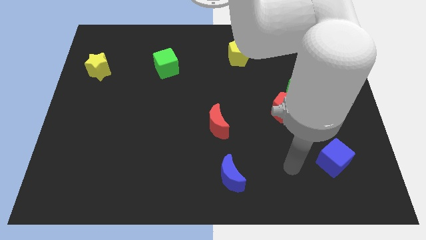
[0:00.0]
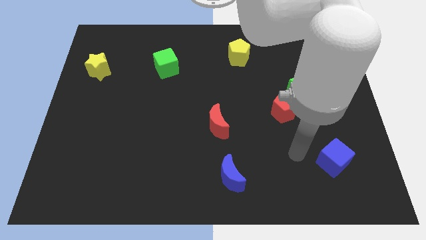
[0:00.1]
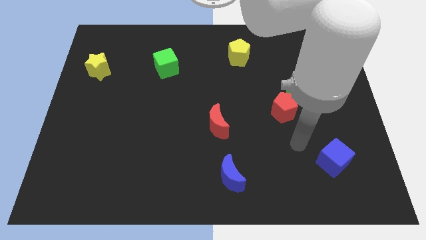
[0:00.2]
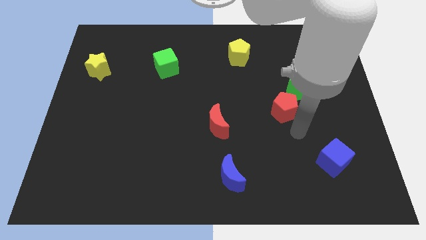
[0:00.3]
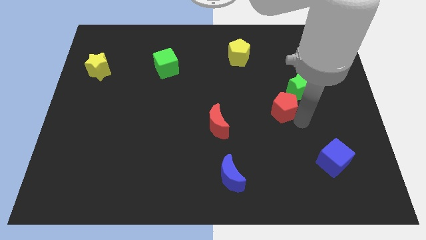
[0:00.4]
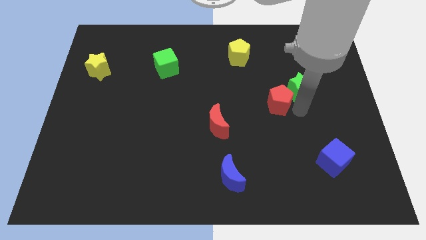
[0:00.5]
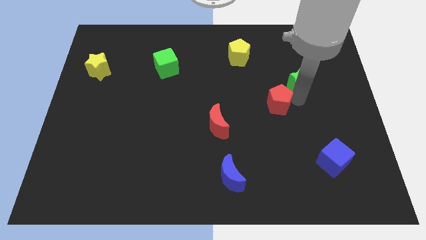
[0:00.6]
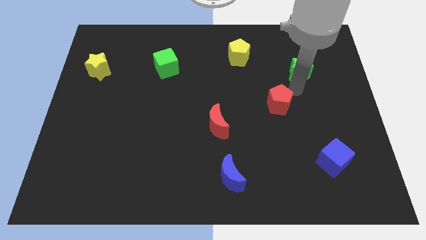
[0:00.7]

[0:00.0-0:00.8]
separate the red pentagon from the green star

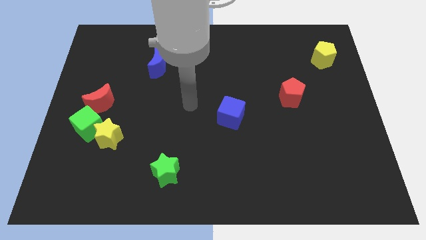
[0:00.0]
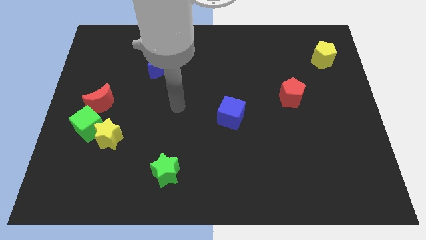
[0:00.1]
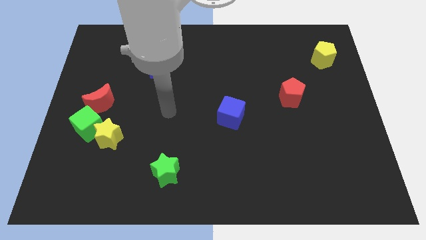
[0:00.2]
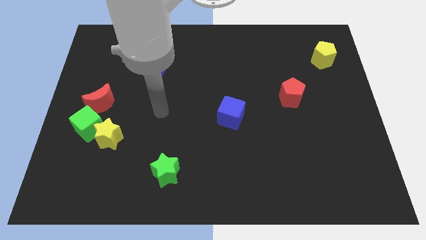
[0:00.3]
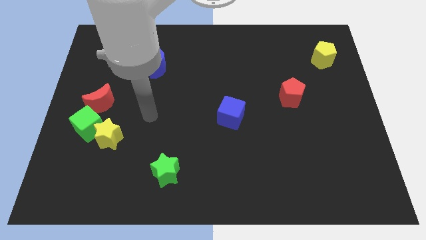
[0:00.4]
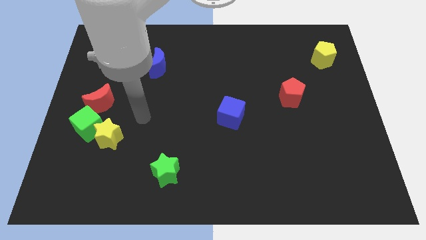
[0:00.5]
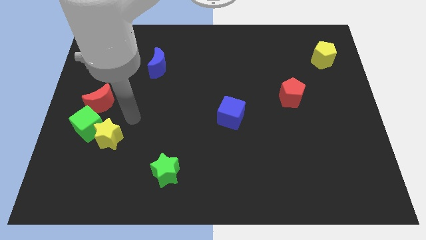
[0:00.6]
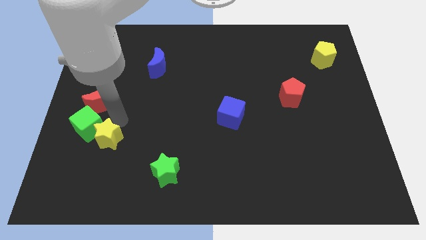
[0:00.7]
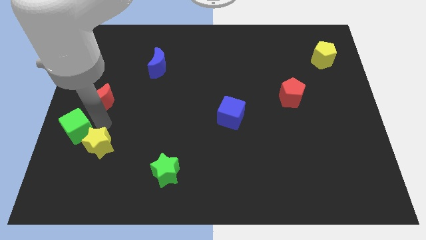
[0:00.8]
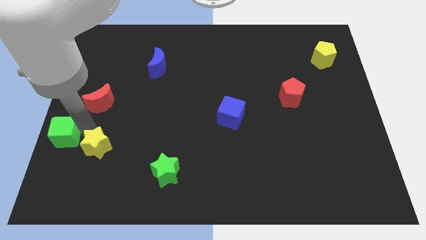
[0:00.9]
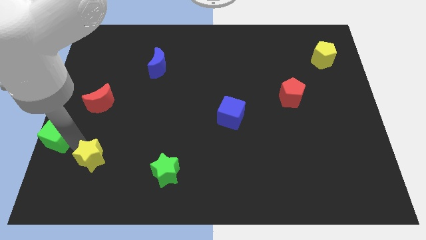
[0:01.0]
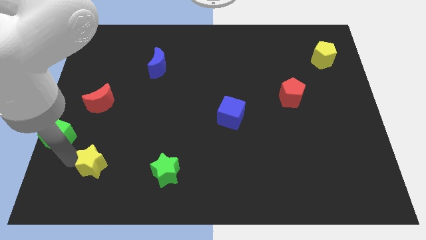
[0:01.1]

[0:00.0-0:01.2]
pull the yellow star apart from the green cube

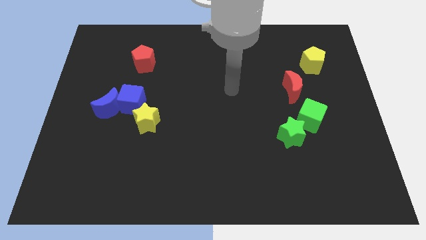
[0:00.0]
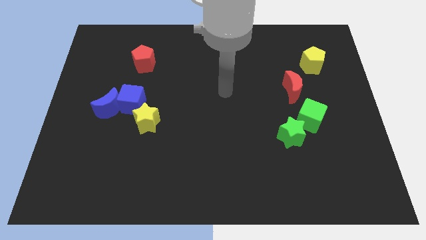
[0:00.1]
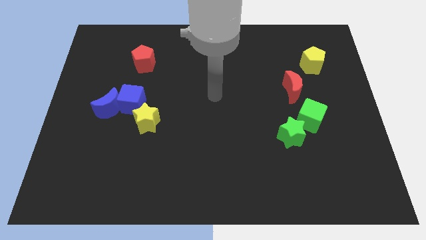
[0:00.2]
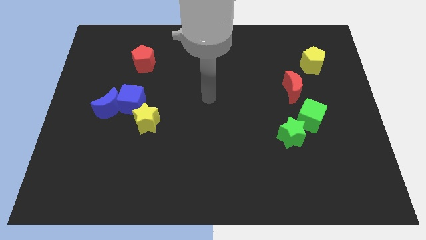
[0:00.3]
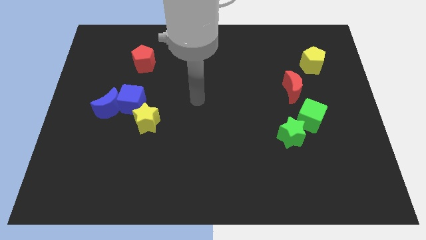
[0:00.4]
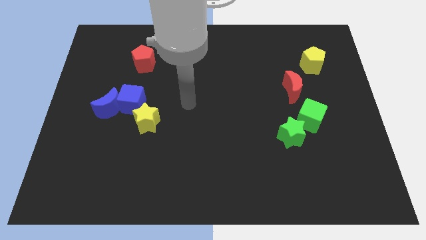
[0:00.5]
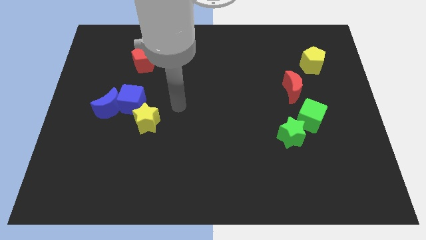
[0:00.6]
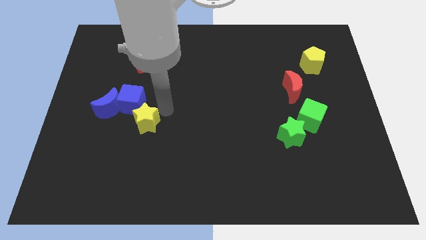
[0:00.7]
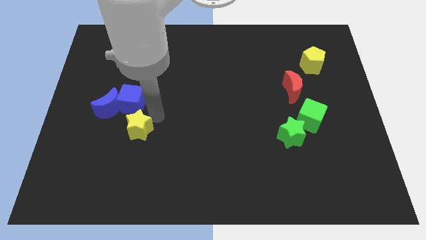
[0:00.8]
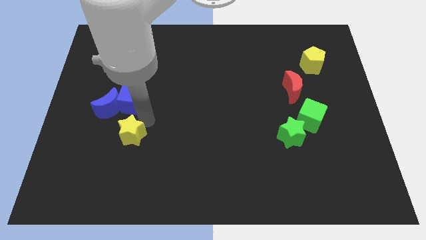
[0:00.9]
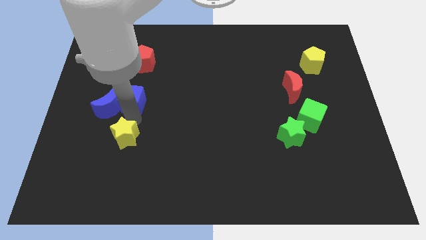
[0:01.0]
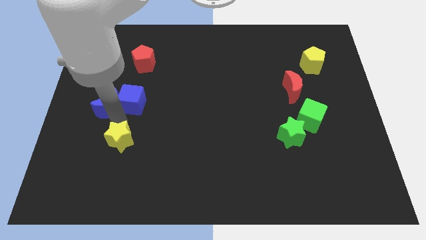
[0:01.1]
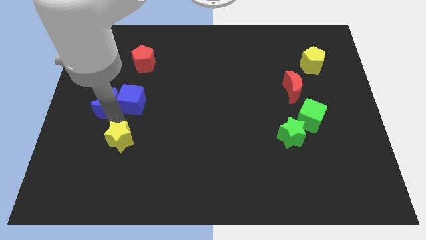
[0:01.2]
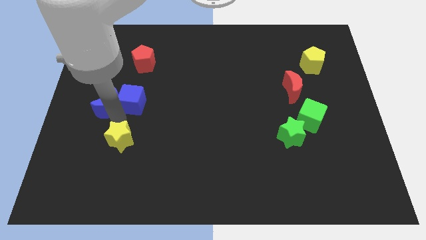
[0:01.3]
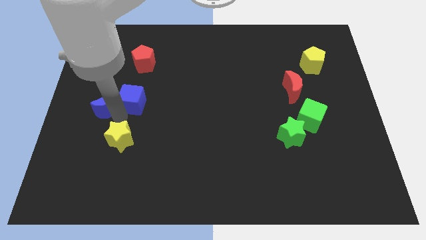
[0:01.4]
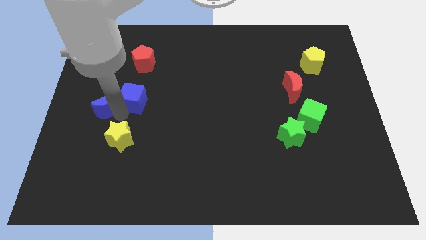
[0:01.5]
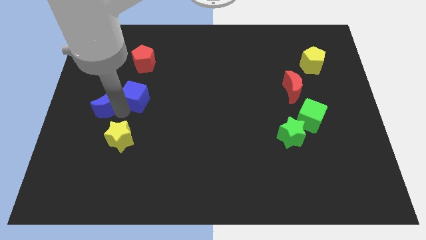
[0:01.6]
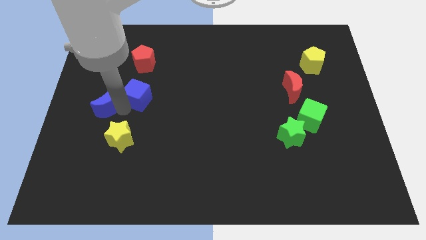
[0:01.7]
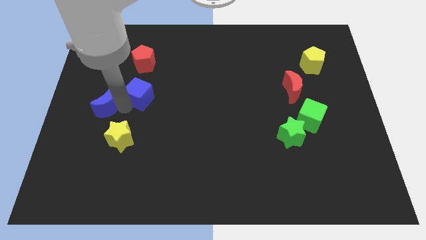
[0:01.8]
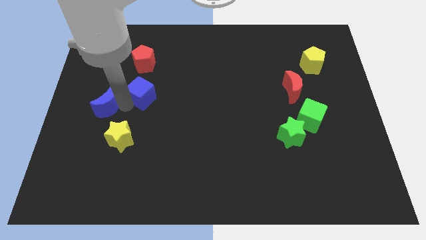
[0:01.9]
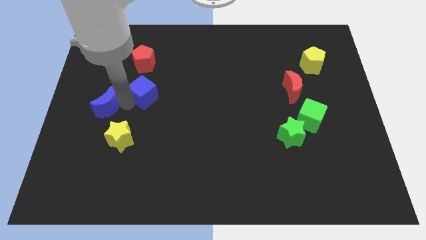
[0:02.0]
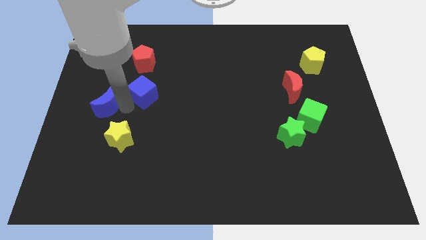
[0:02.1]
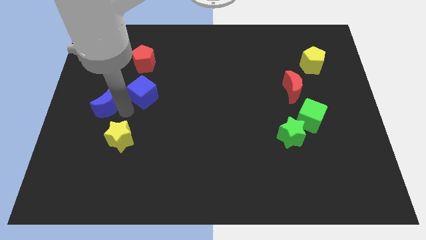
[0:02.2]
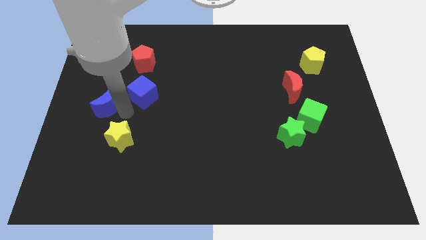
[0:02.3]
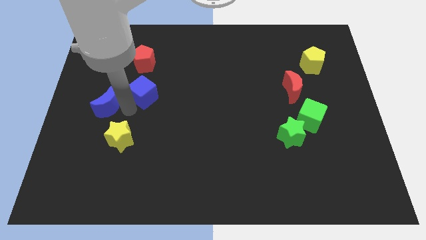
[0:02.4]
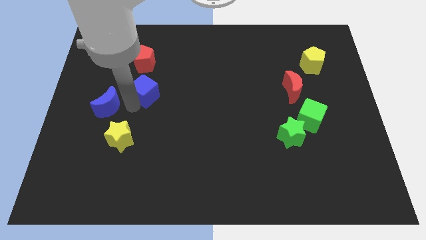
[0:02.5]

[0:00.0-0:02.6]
move the blue cube away from the blue moon and yellow star

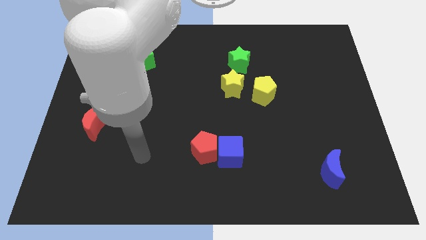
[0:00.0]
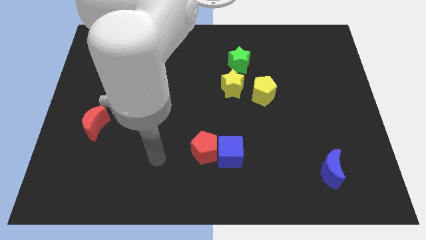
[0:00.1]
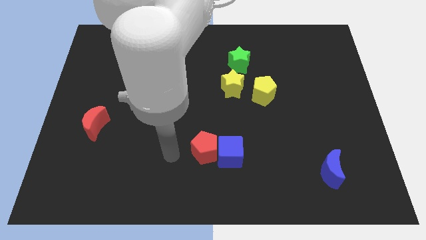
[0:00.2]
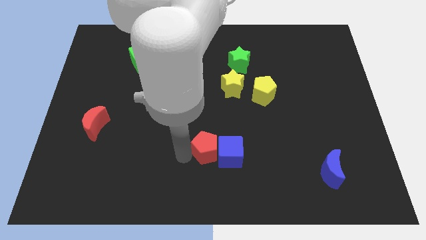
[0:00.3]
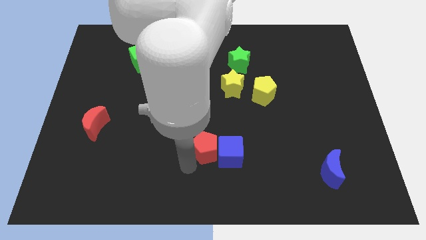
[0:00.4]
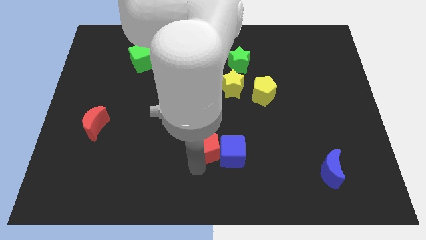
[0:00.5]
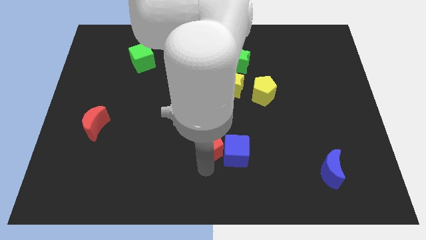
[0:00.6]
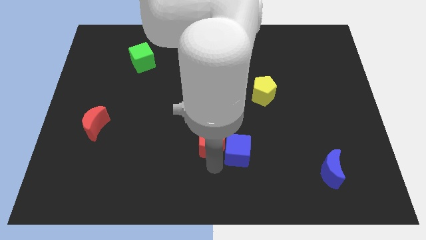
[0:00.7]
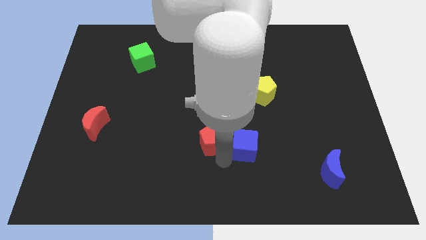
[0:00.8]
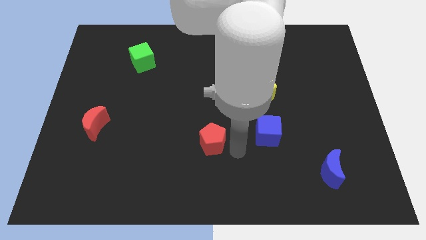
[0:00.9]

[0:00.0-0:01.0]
separate the red pentagon from the blue cube

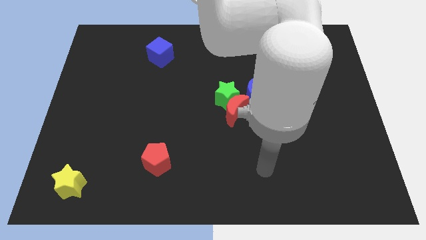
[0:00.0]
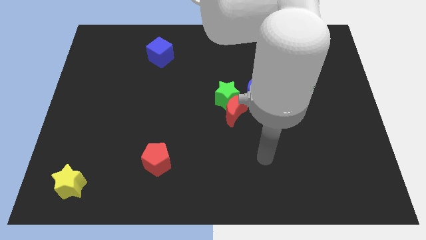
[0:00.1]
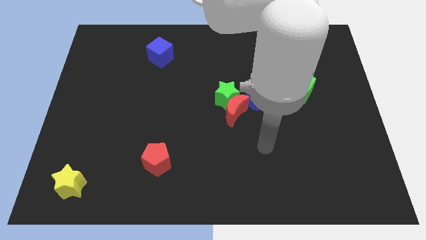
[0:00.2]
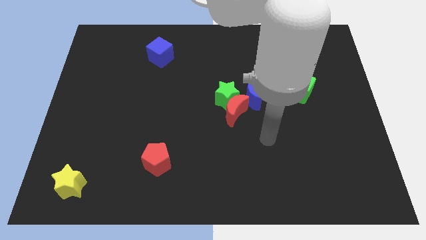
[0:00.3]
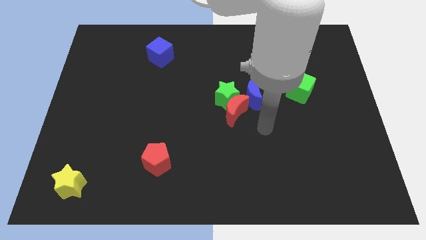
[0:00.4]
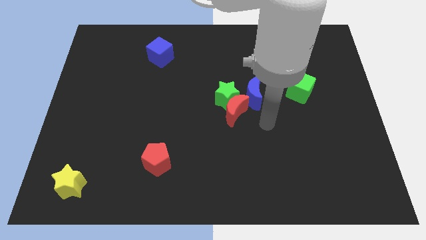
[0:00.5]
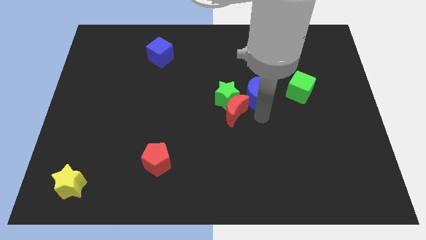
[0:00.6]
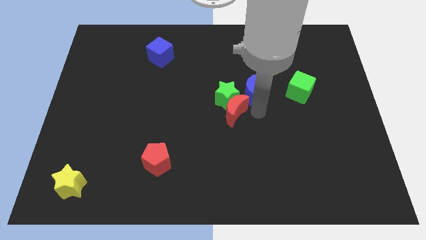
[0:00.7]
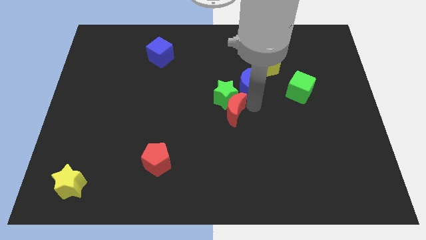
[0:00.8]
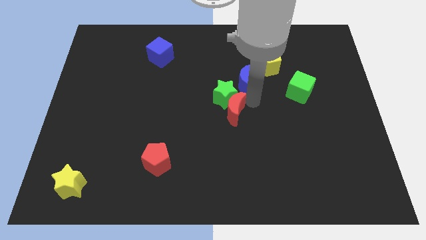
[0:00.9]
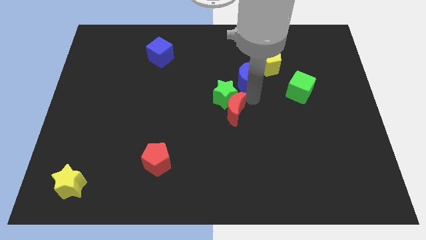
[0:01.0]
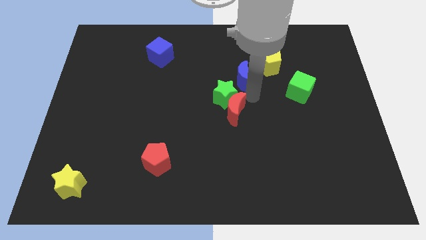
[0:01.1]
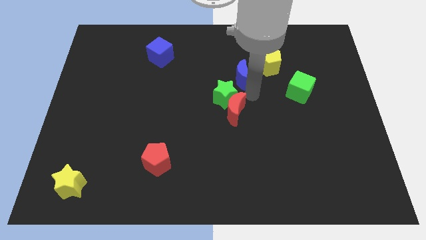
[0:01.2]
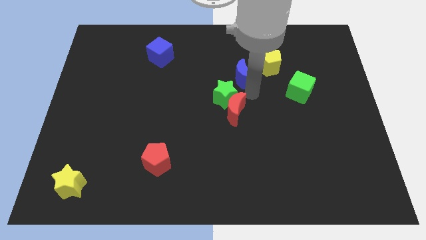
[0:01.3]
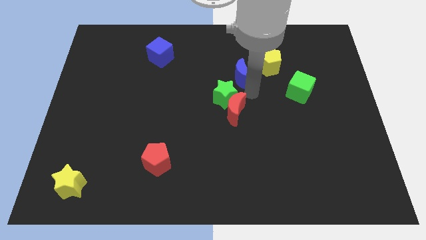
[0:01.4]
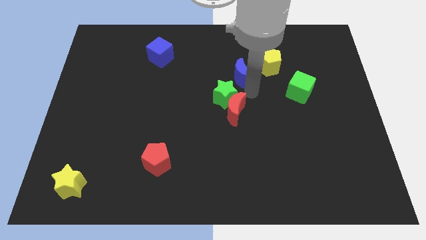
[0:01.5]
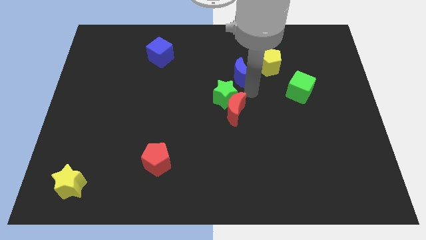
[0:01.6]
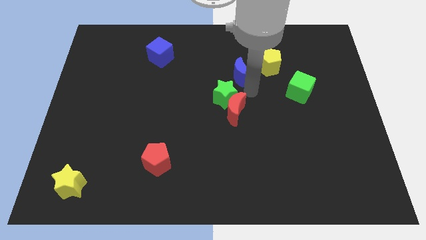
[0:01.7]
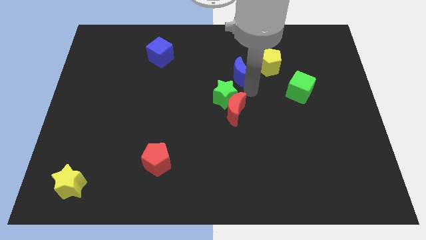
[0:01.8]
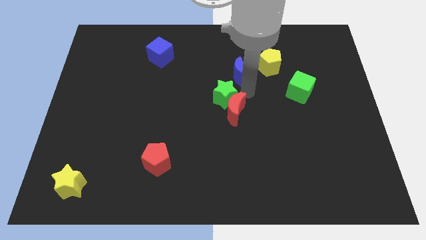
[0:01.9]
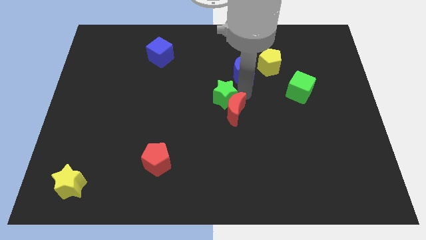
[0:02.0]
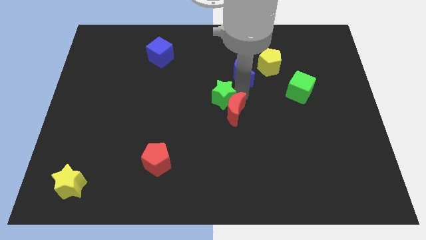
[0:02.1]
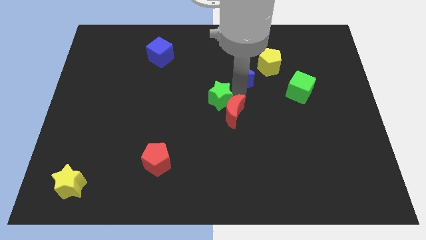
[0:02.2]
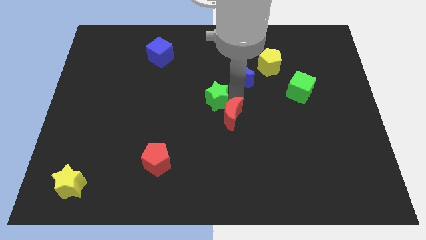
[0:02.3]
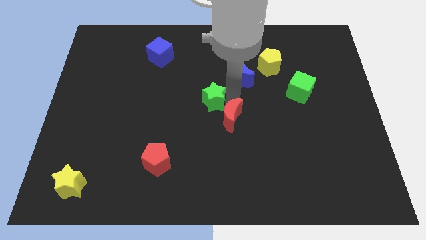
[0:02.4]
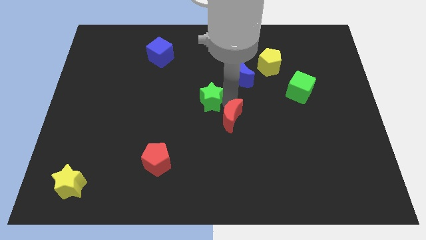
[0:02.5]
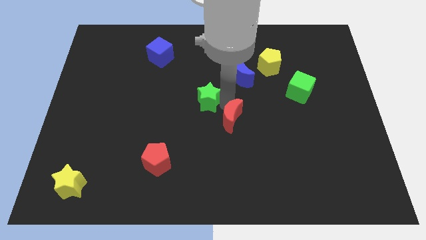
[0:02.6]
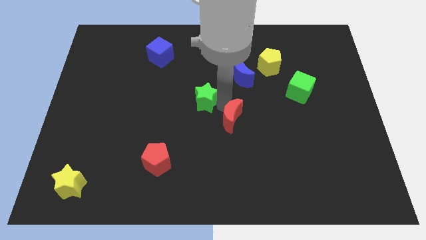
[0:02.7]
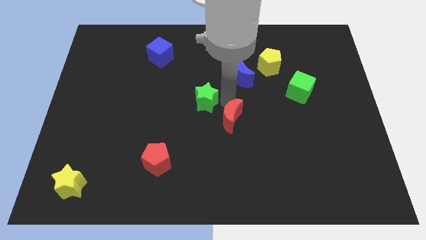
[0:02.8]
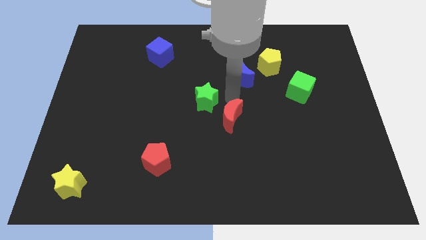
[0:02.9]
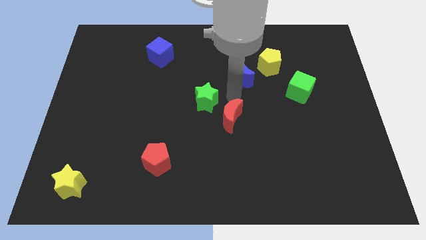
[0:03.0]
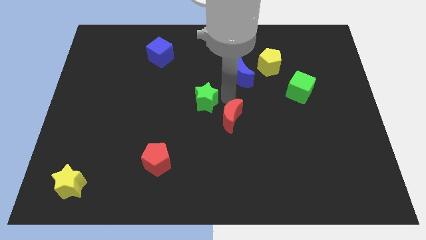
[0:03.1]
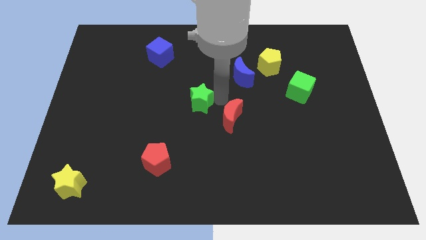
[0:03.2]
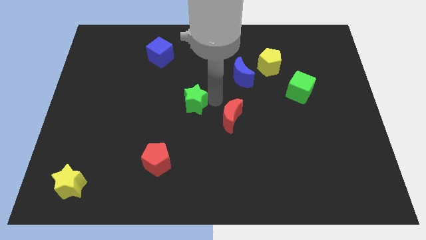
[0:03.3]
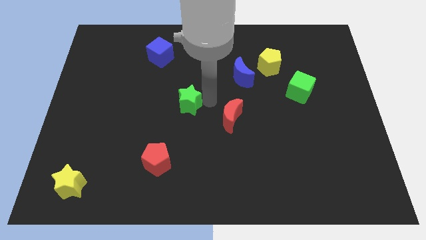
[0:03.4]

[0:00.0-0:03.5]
separate the green star from the red moon and blue moon

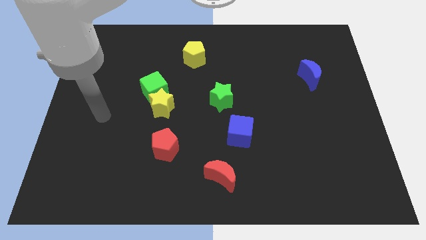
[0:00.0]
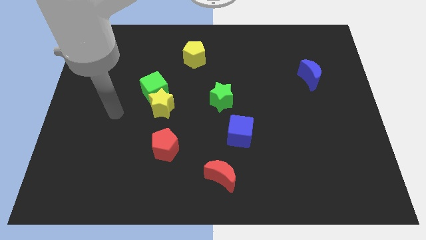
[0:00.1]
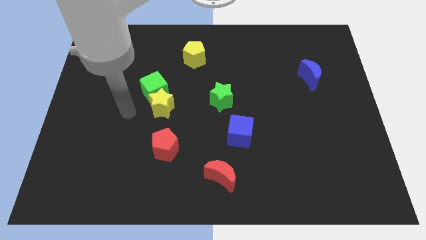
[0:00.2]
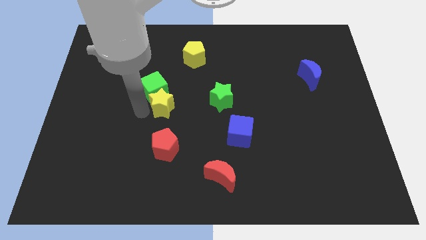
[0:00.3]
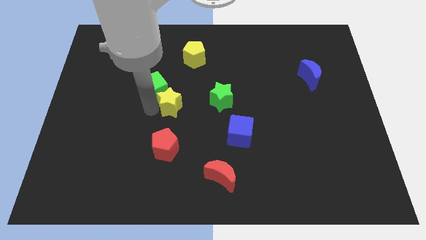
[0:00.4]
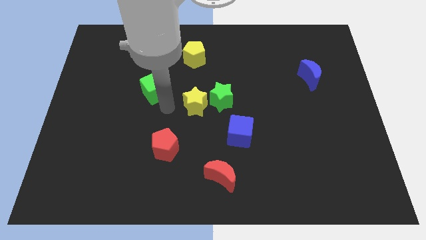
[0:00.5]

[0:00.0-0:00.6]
pull the green cube apart from the yellow star
